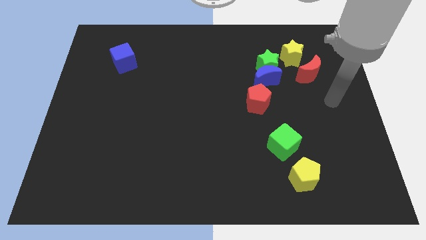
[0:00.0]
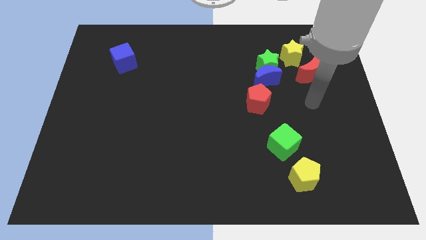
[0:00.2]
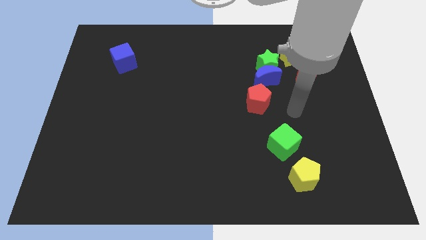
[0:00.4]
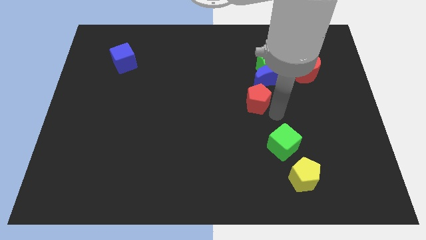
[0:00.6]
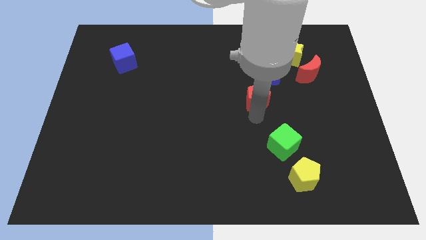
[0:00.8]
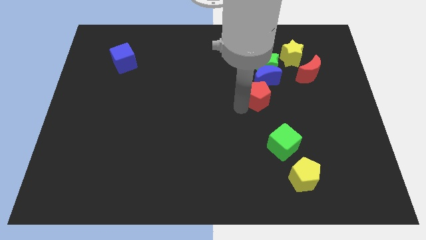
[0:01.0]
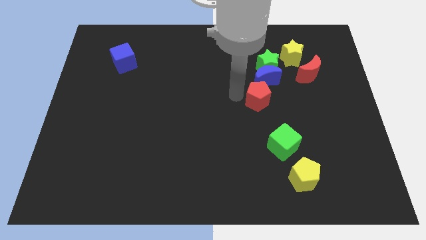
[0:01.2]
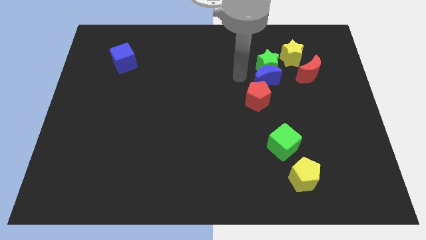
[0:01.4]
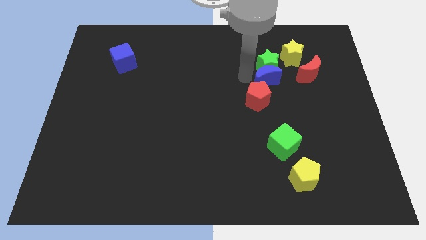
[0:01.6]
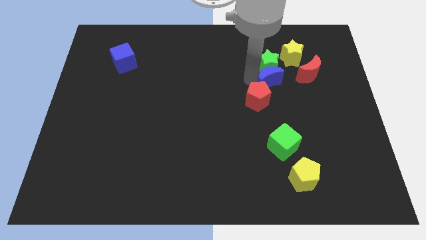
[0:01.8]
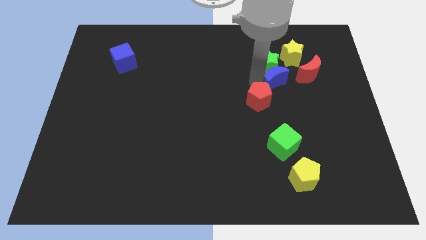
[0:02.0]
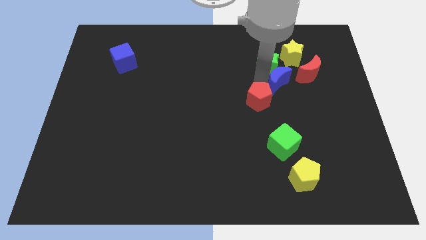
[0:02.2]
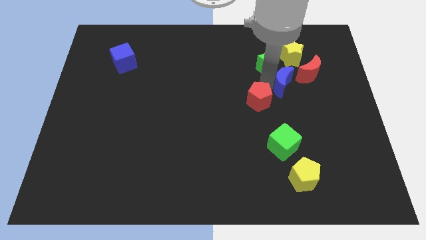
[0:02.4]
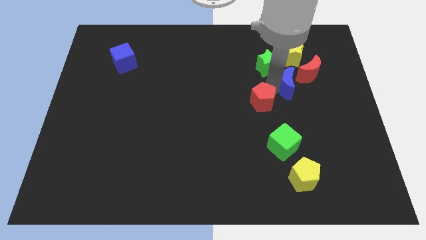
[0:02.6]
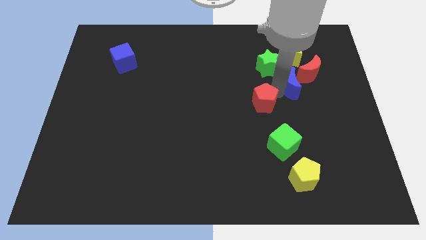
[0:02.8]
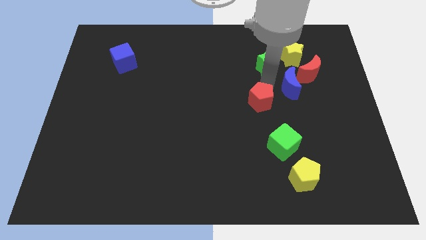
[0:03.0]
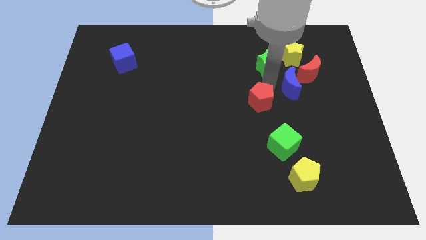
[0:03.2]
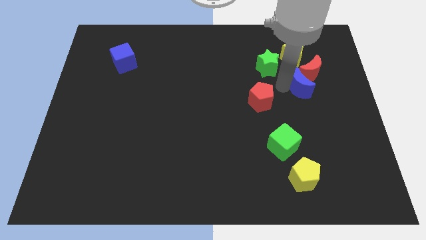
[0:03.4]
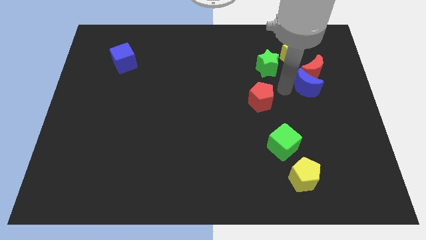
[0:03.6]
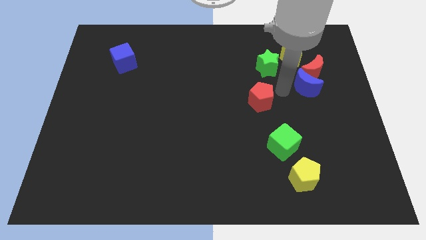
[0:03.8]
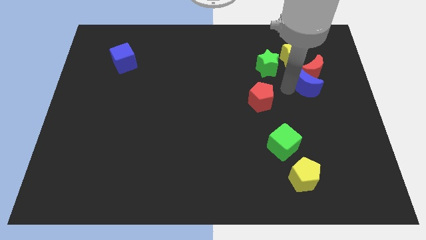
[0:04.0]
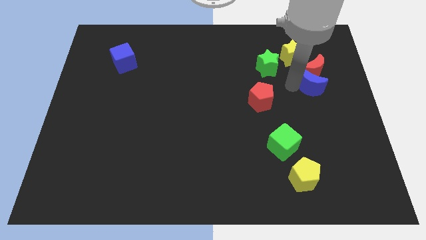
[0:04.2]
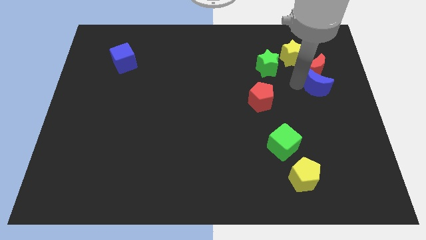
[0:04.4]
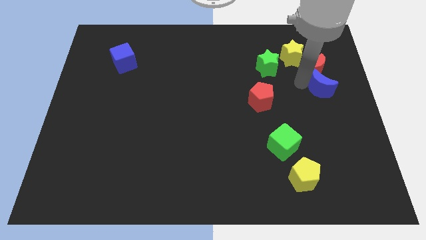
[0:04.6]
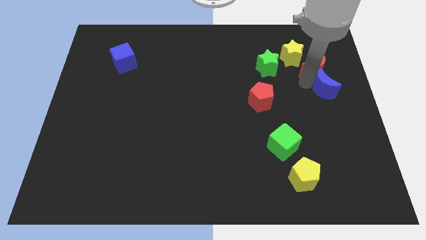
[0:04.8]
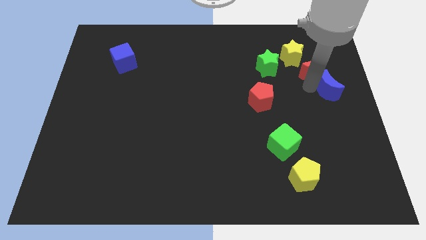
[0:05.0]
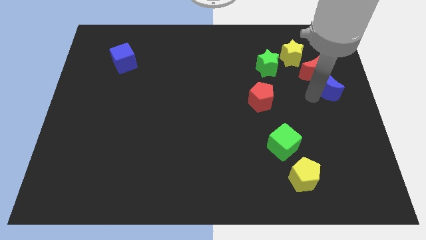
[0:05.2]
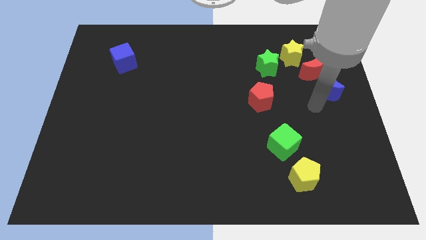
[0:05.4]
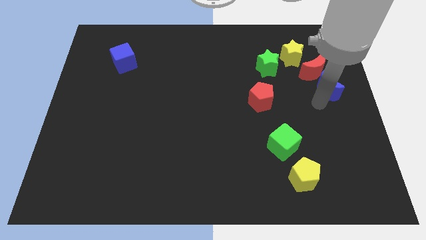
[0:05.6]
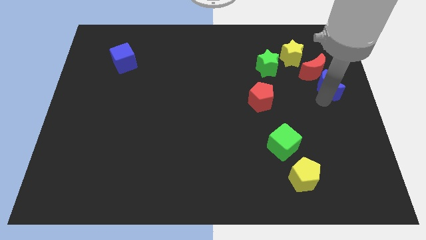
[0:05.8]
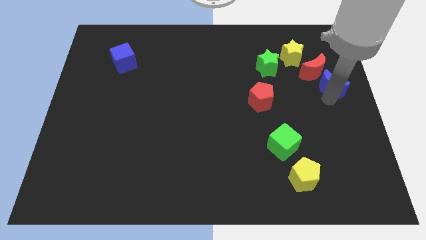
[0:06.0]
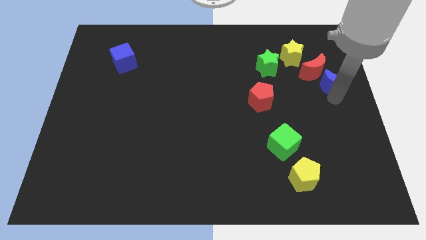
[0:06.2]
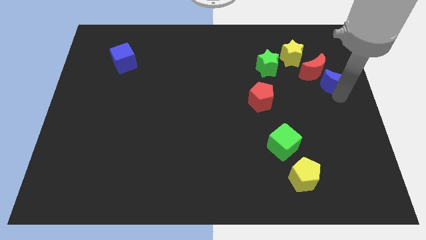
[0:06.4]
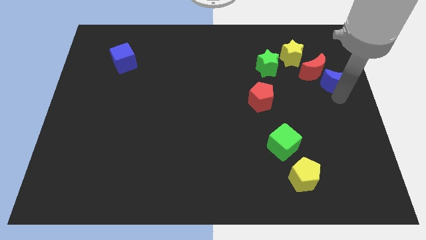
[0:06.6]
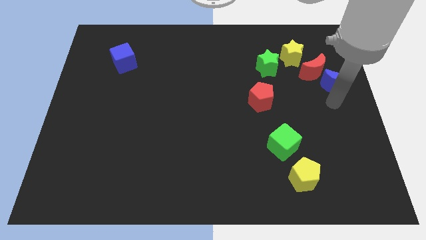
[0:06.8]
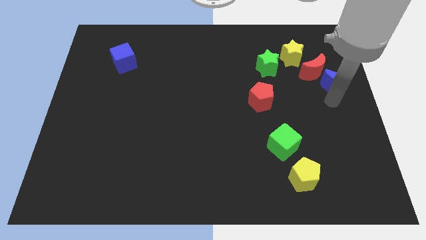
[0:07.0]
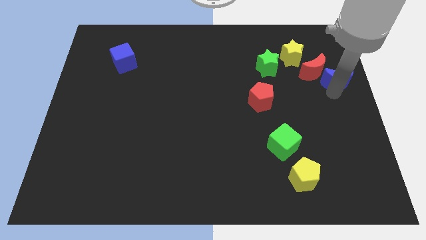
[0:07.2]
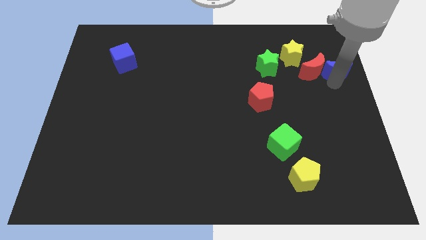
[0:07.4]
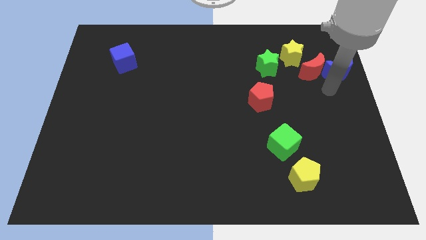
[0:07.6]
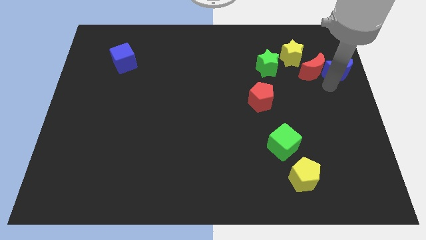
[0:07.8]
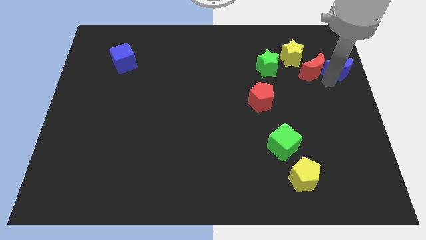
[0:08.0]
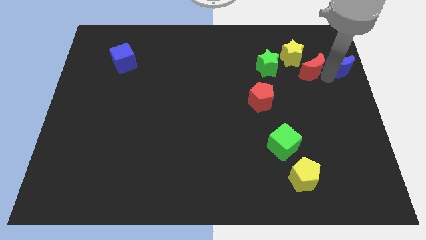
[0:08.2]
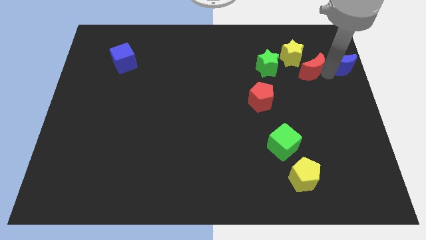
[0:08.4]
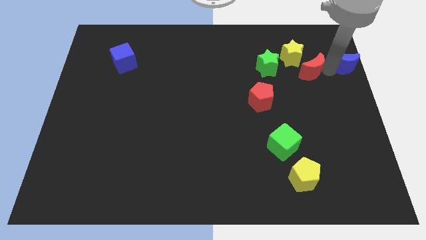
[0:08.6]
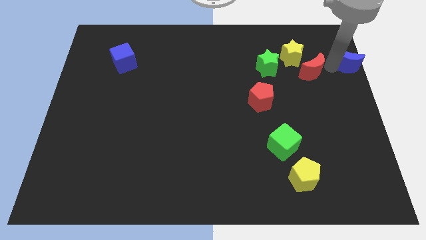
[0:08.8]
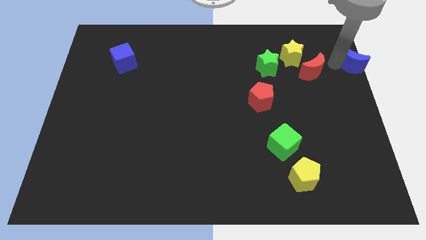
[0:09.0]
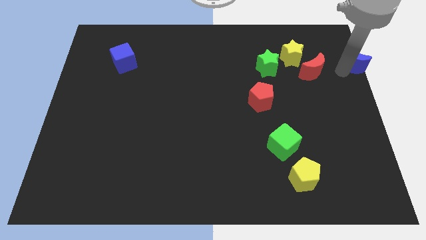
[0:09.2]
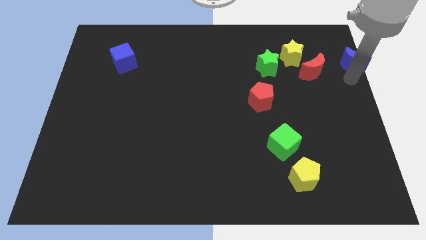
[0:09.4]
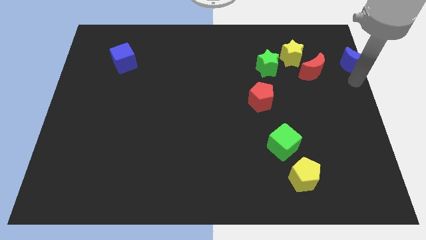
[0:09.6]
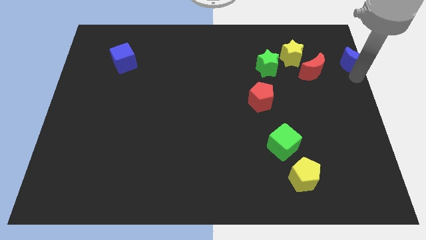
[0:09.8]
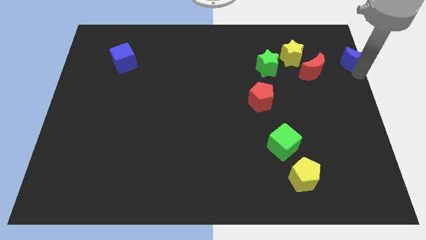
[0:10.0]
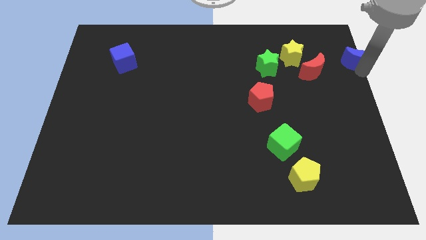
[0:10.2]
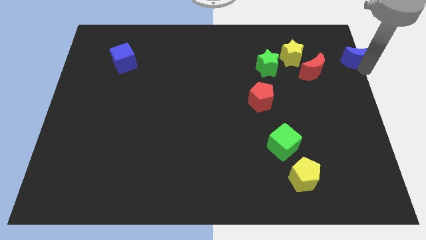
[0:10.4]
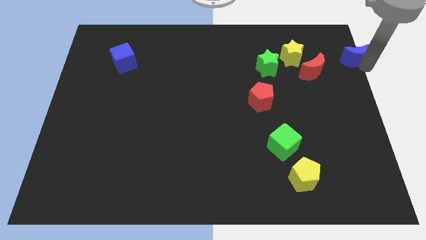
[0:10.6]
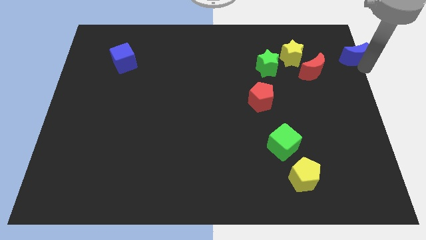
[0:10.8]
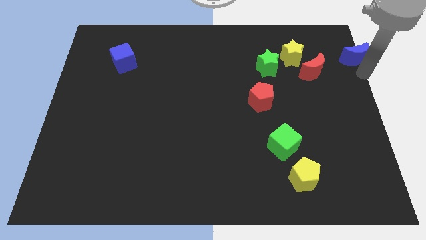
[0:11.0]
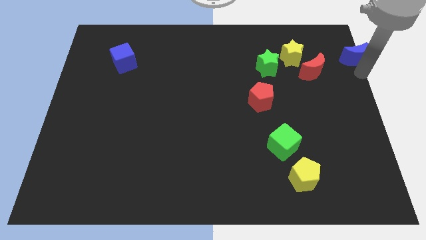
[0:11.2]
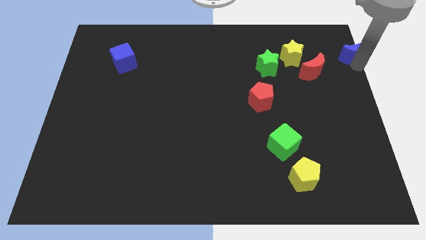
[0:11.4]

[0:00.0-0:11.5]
push the blue moon to the top right corner

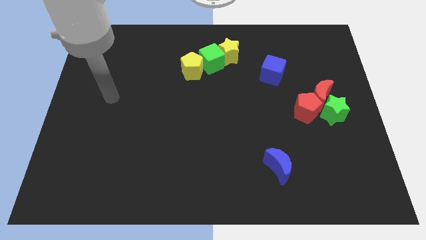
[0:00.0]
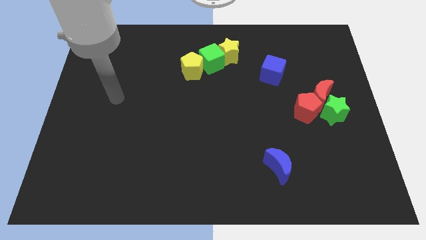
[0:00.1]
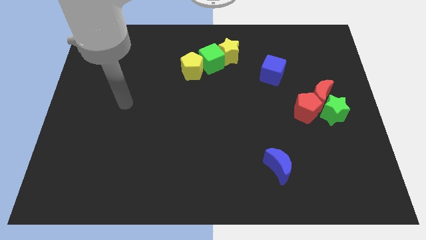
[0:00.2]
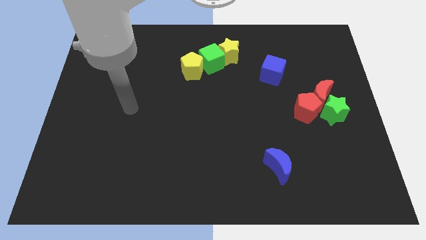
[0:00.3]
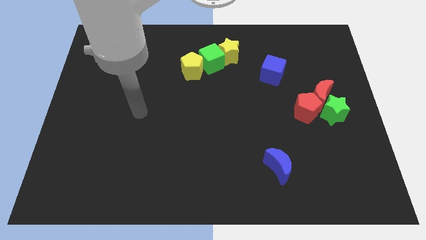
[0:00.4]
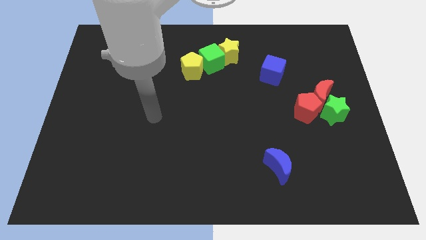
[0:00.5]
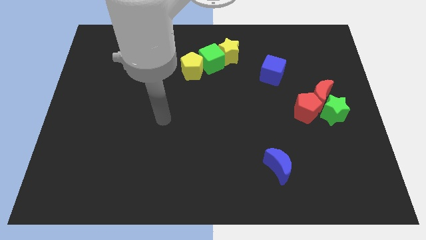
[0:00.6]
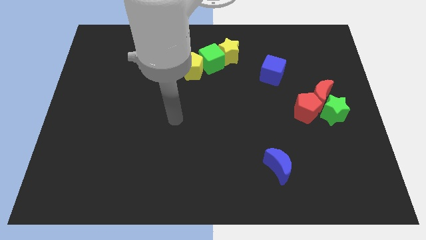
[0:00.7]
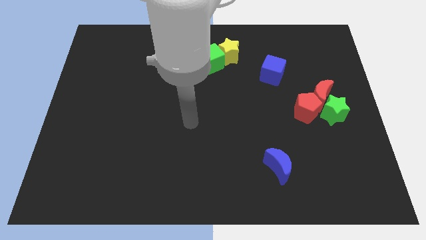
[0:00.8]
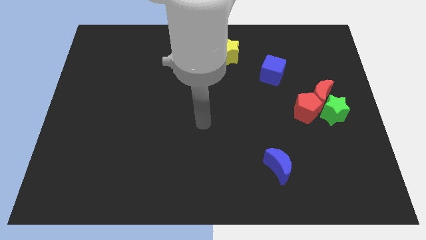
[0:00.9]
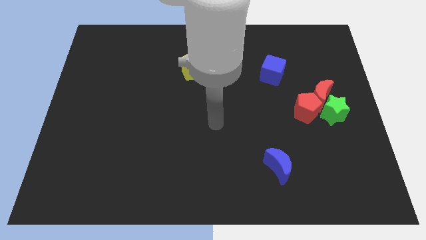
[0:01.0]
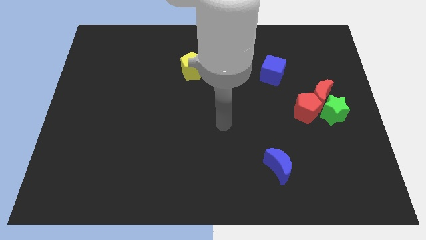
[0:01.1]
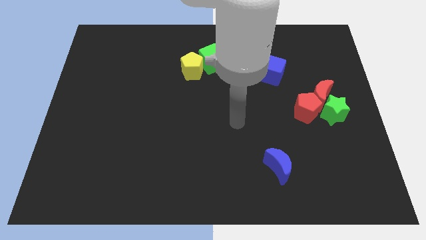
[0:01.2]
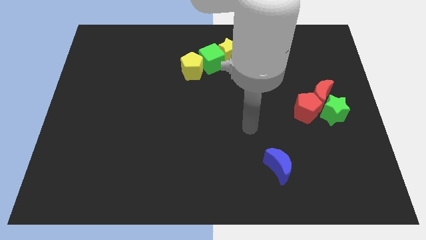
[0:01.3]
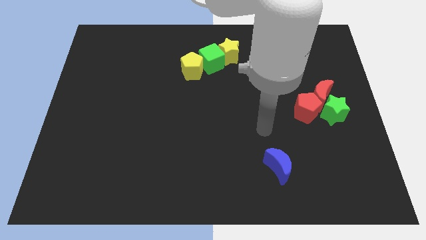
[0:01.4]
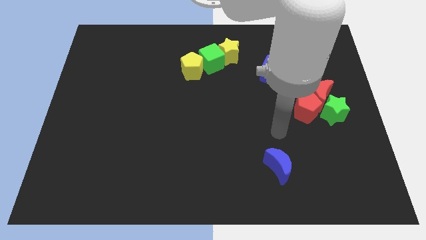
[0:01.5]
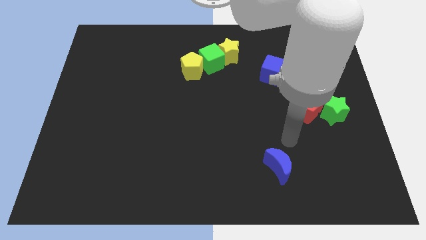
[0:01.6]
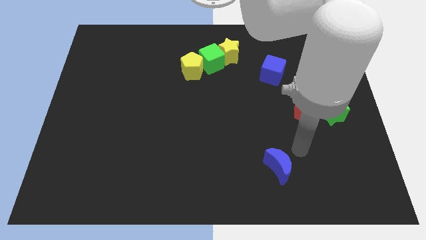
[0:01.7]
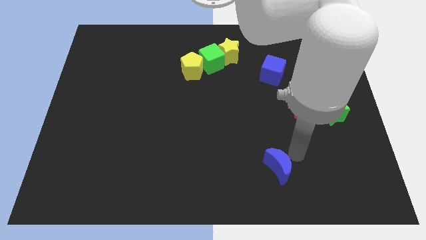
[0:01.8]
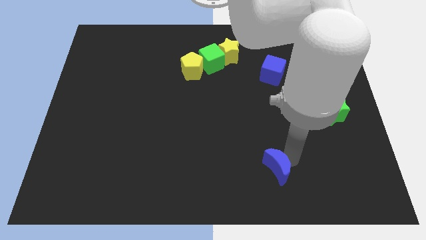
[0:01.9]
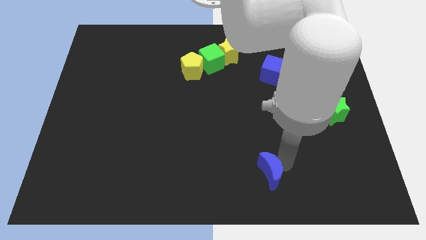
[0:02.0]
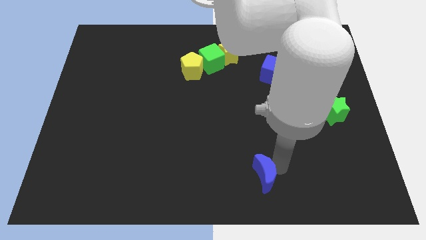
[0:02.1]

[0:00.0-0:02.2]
move the blue moon to the bottom
